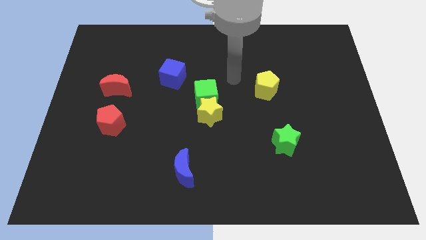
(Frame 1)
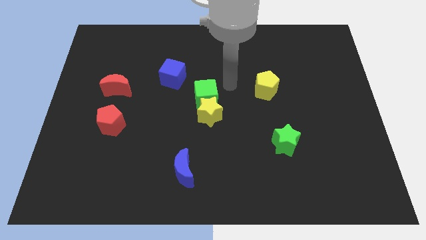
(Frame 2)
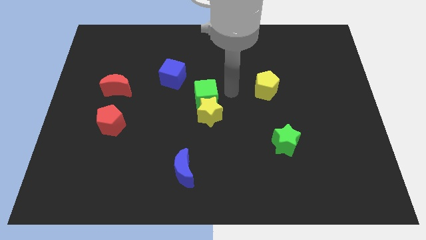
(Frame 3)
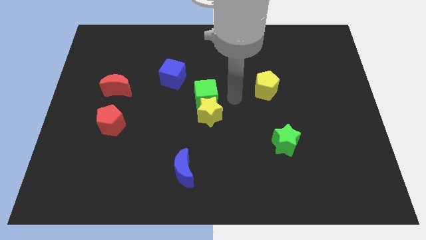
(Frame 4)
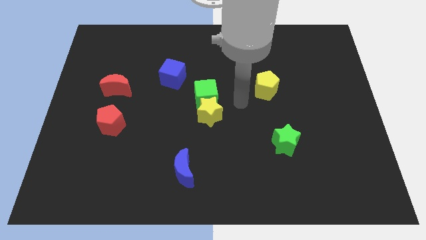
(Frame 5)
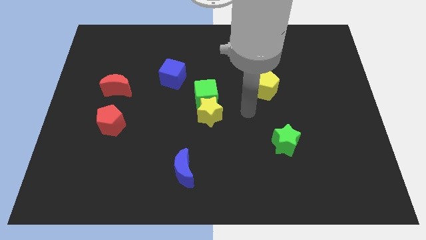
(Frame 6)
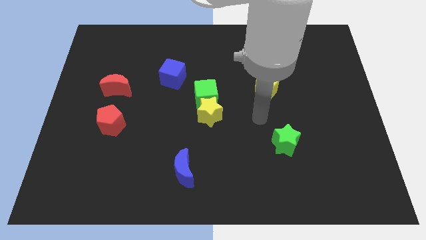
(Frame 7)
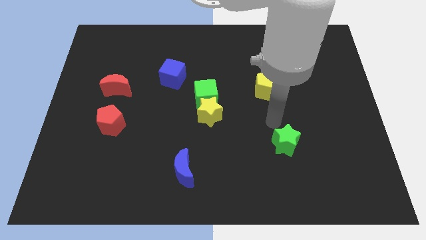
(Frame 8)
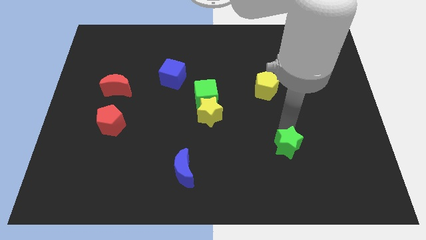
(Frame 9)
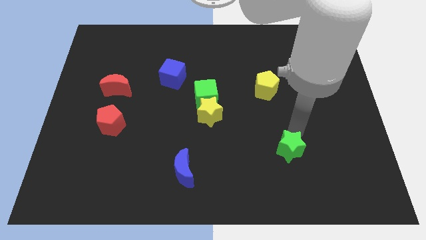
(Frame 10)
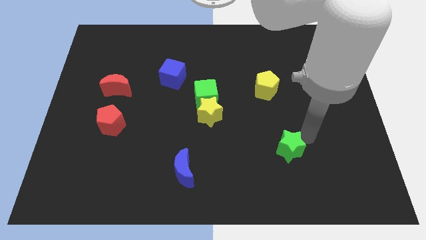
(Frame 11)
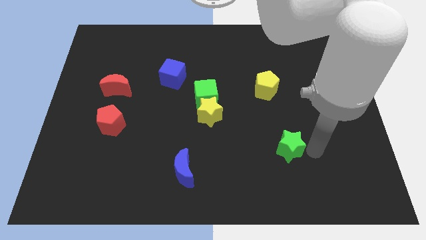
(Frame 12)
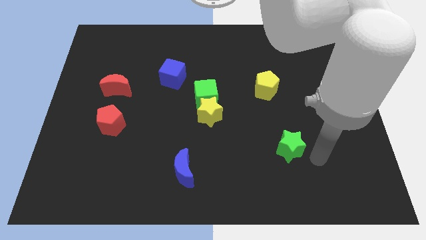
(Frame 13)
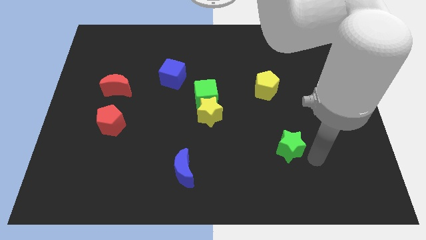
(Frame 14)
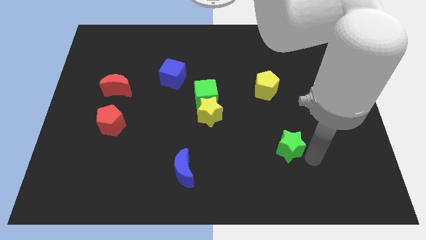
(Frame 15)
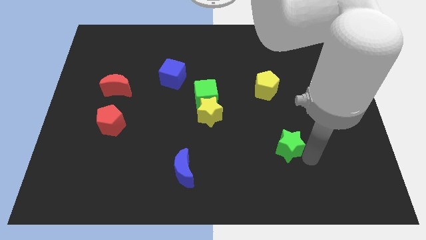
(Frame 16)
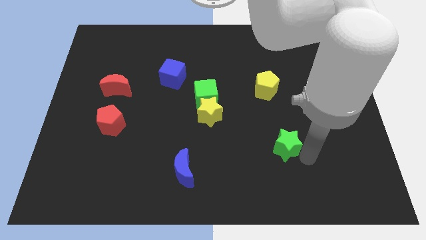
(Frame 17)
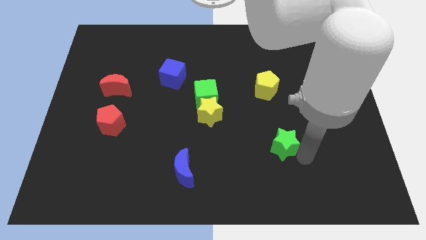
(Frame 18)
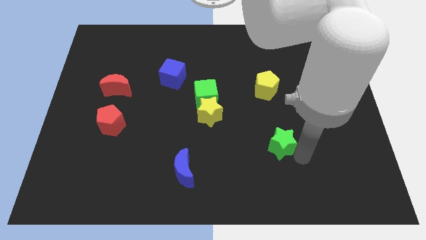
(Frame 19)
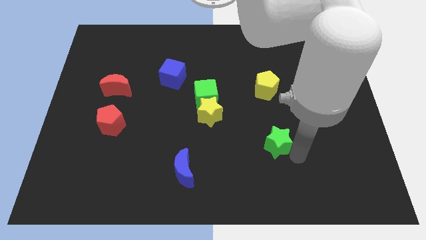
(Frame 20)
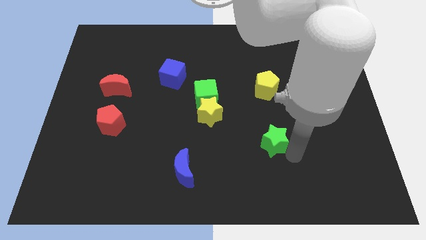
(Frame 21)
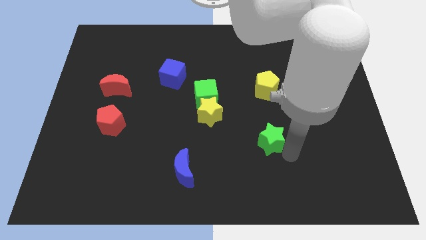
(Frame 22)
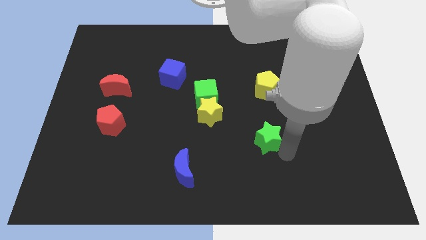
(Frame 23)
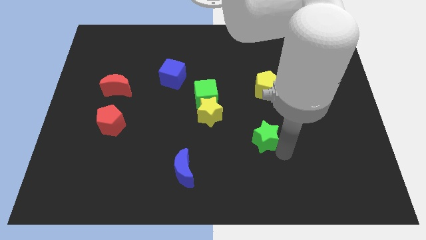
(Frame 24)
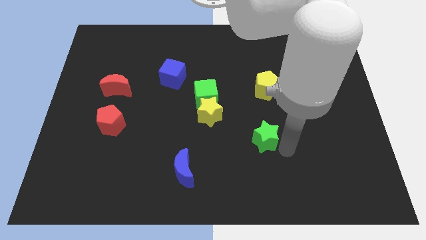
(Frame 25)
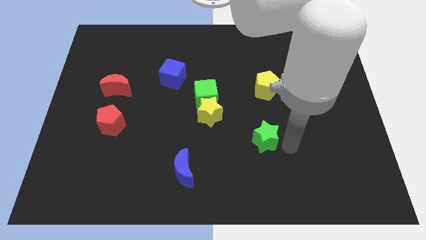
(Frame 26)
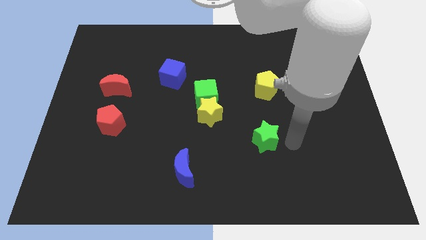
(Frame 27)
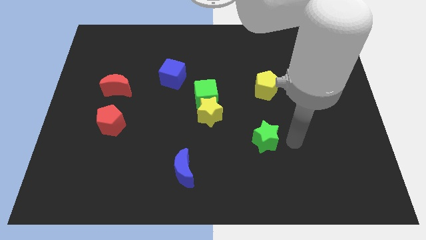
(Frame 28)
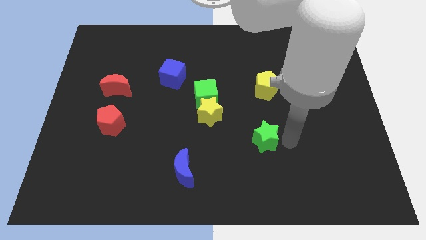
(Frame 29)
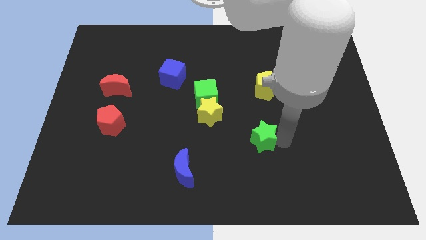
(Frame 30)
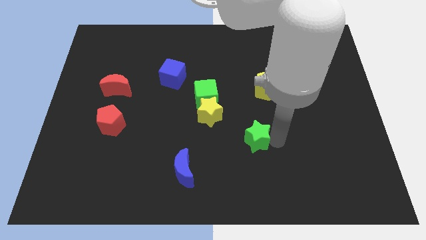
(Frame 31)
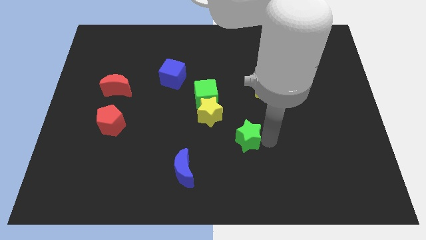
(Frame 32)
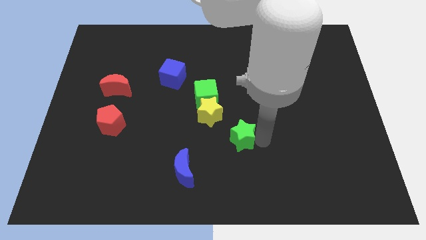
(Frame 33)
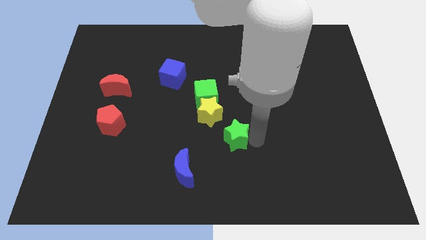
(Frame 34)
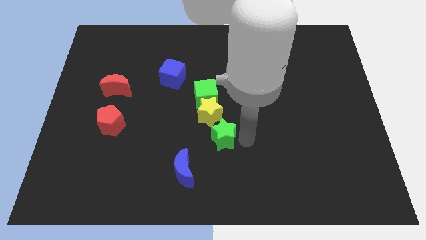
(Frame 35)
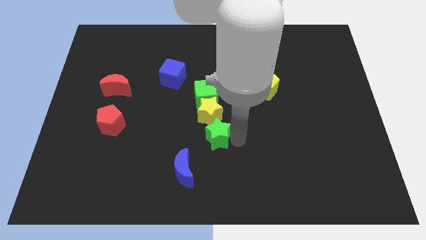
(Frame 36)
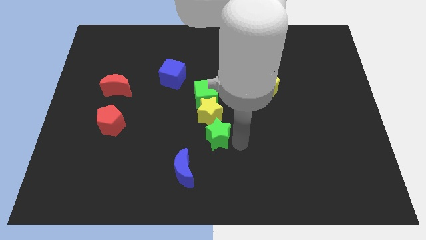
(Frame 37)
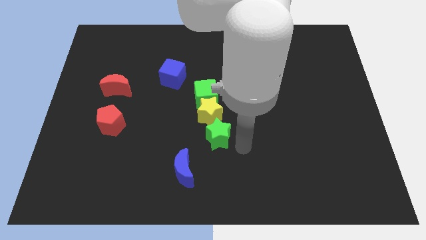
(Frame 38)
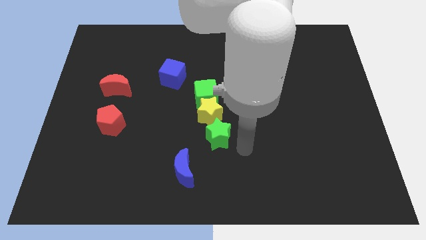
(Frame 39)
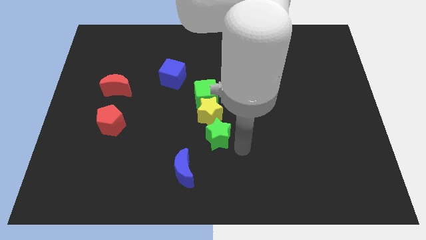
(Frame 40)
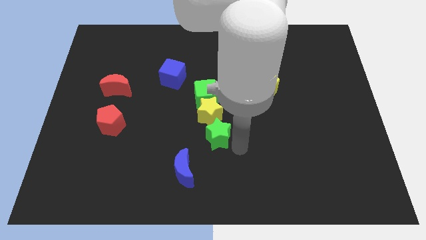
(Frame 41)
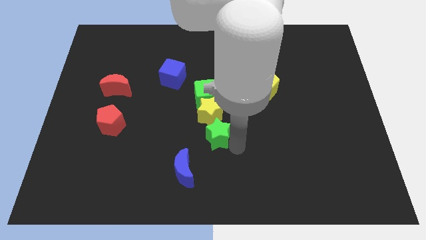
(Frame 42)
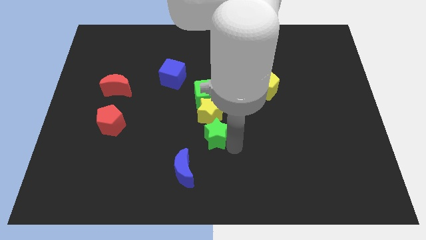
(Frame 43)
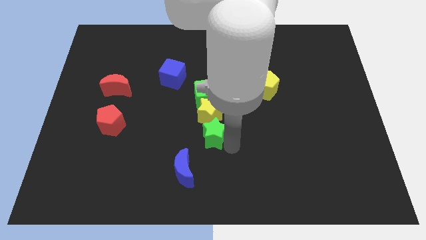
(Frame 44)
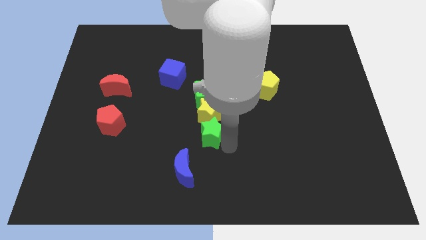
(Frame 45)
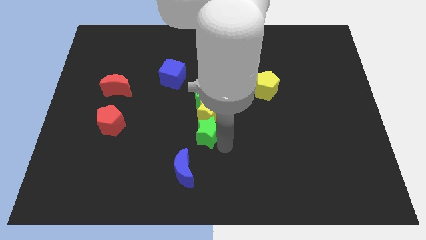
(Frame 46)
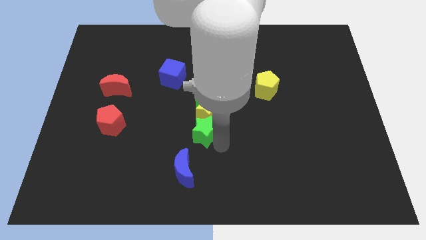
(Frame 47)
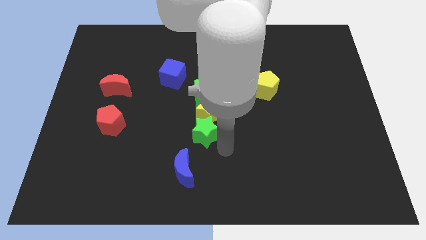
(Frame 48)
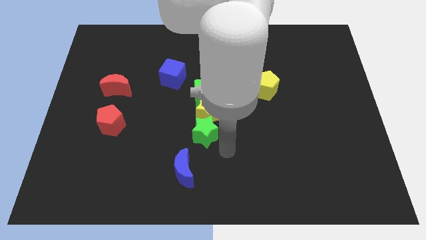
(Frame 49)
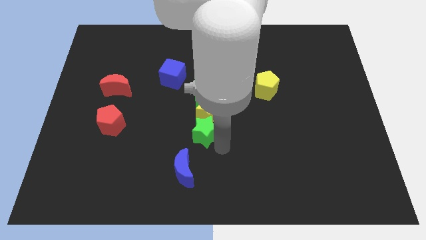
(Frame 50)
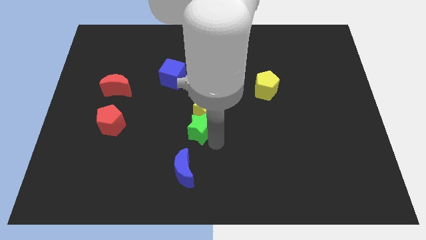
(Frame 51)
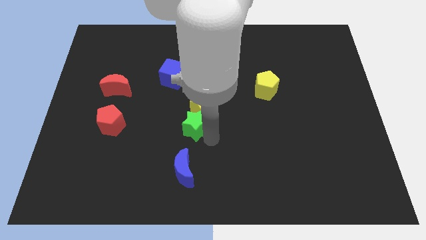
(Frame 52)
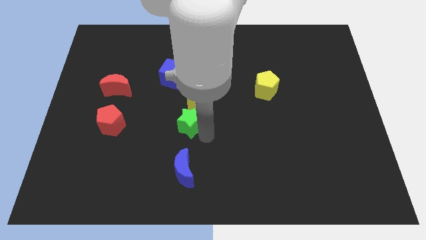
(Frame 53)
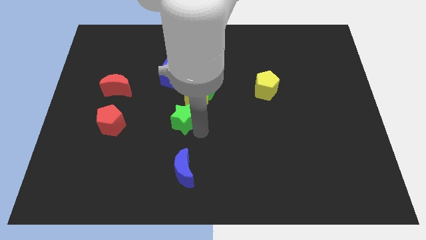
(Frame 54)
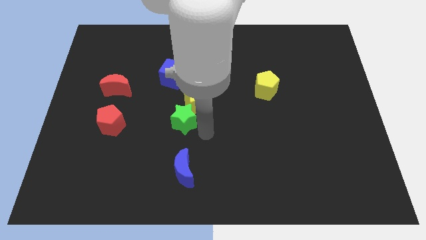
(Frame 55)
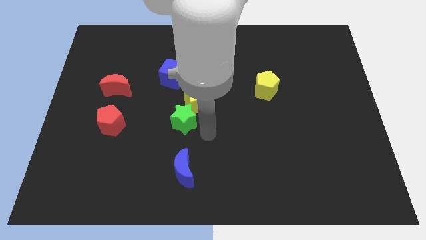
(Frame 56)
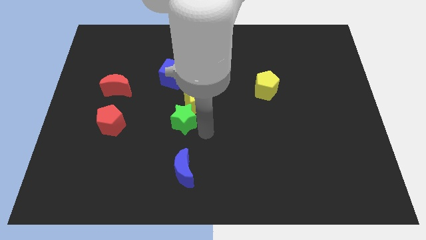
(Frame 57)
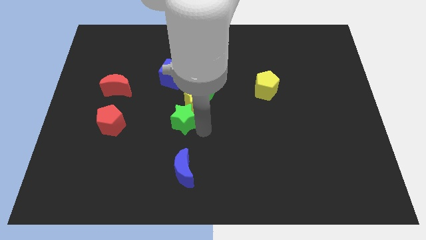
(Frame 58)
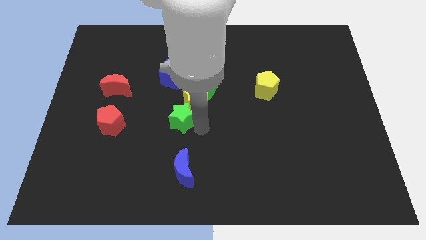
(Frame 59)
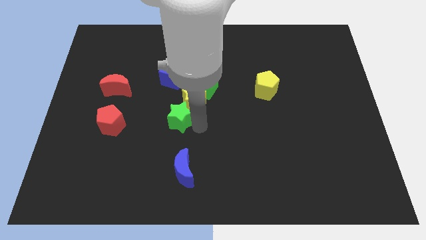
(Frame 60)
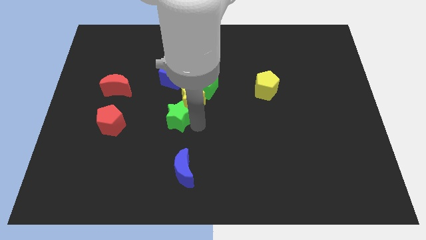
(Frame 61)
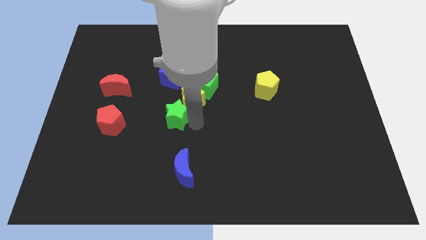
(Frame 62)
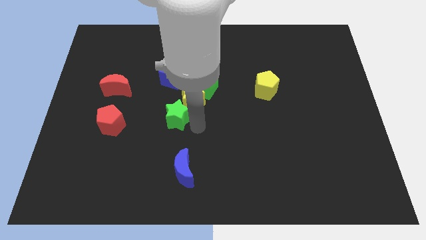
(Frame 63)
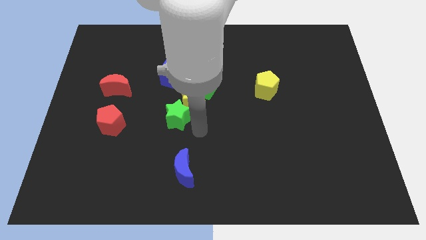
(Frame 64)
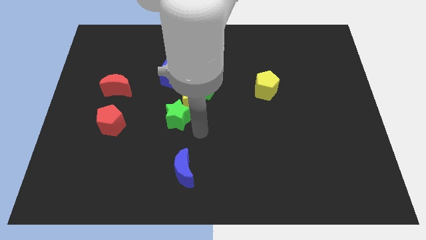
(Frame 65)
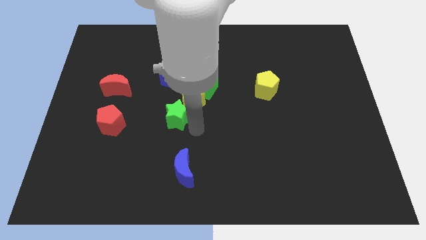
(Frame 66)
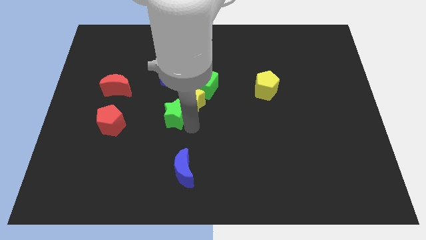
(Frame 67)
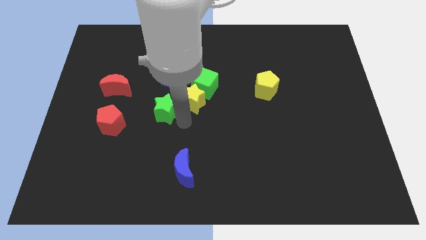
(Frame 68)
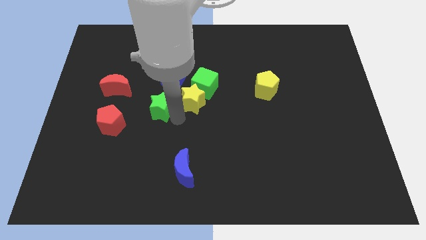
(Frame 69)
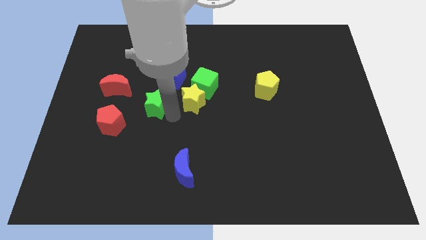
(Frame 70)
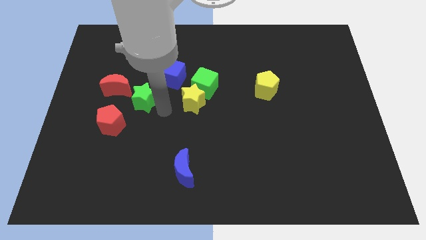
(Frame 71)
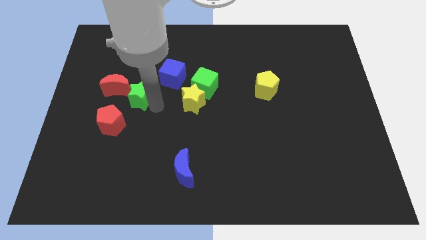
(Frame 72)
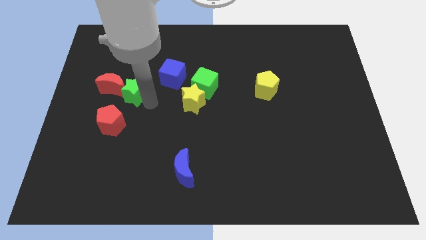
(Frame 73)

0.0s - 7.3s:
push the green star close to the red moon

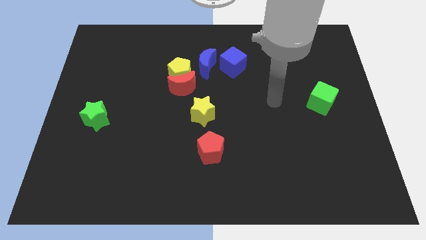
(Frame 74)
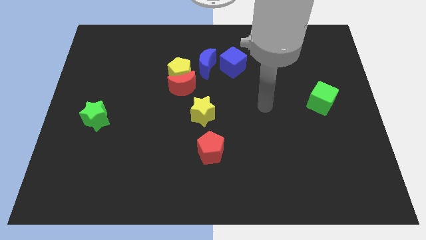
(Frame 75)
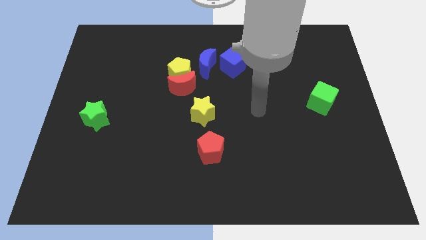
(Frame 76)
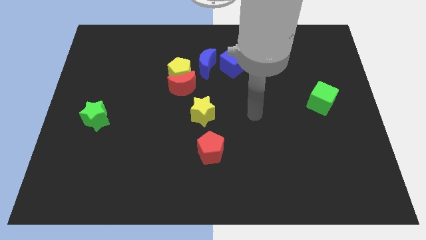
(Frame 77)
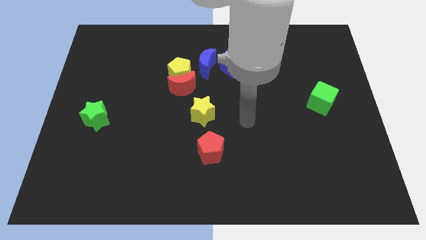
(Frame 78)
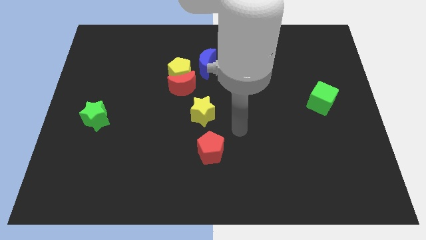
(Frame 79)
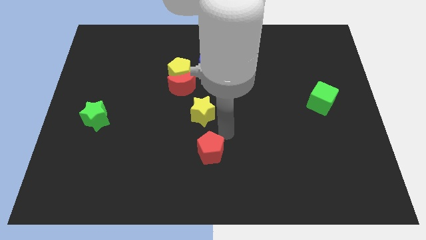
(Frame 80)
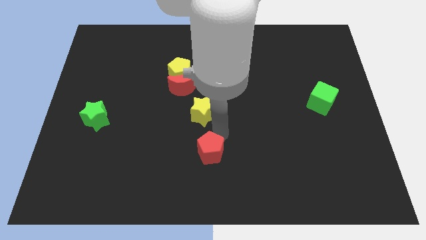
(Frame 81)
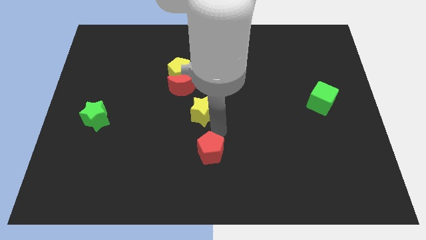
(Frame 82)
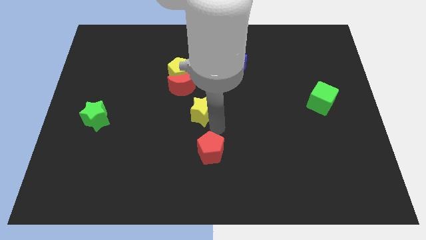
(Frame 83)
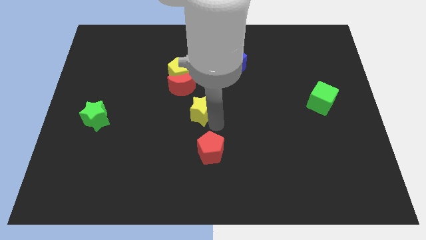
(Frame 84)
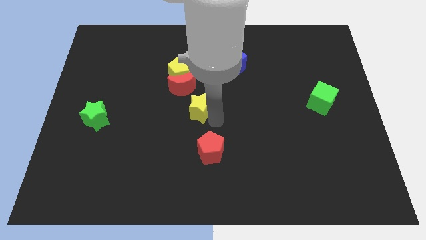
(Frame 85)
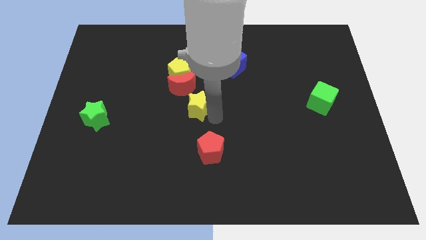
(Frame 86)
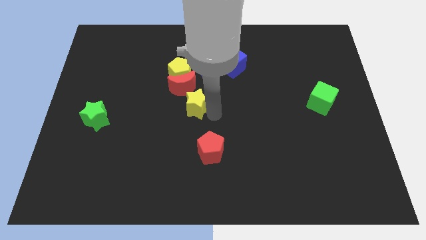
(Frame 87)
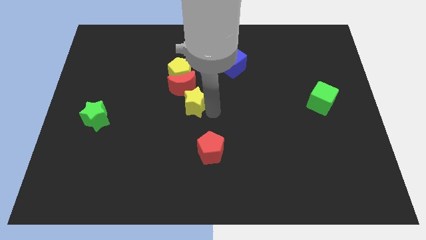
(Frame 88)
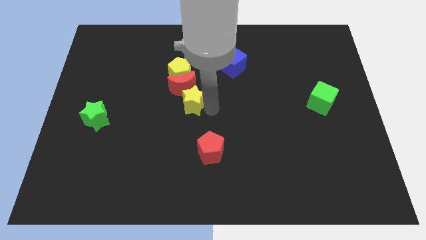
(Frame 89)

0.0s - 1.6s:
put the yellow star next to the red moon
